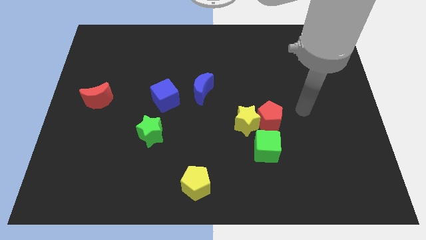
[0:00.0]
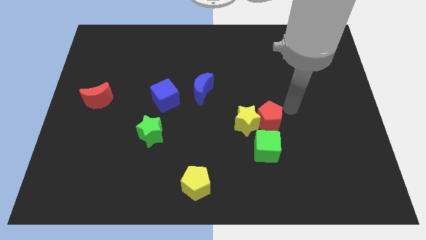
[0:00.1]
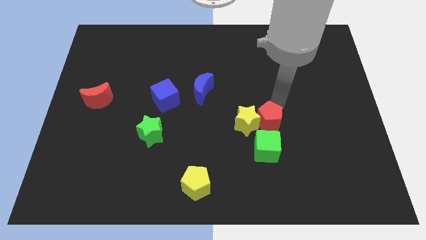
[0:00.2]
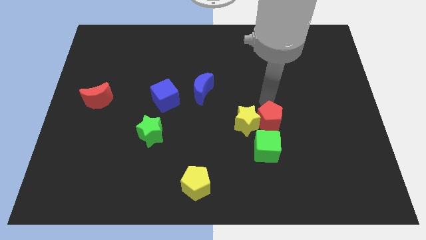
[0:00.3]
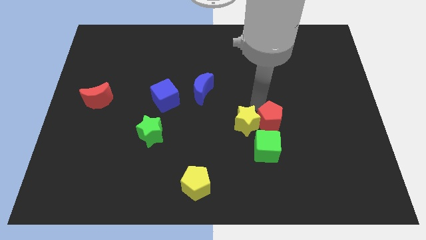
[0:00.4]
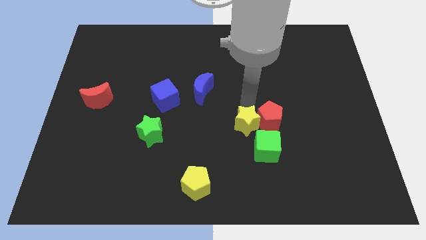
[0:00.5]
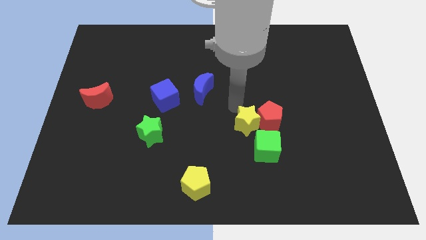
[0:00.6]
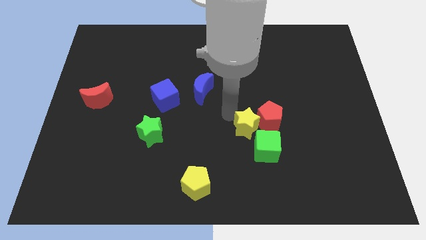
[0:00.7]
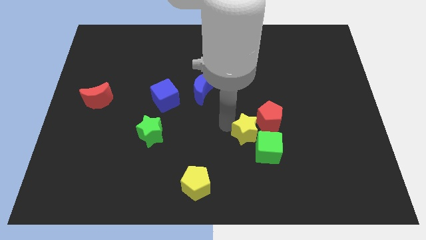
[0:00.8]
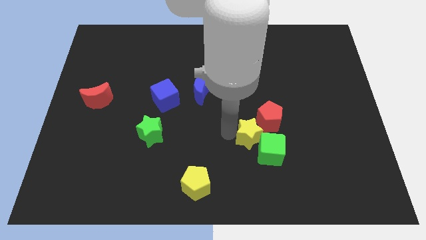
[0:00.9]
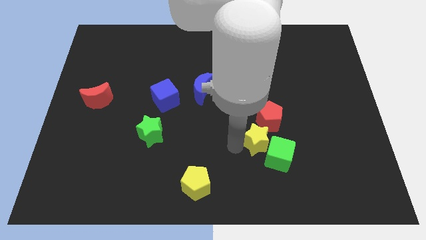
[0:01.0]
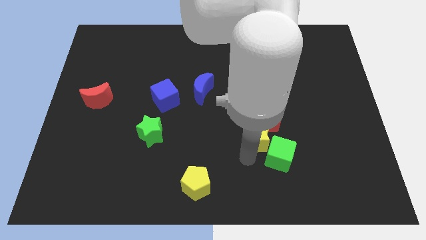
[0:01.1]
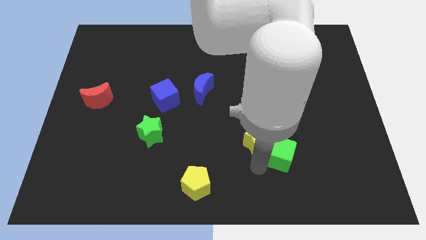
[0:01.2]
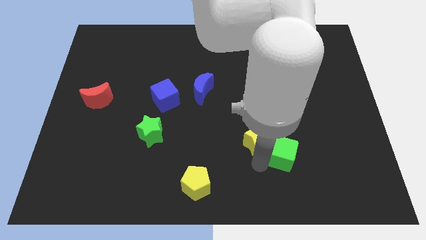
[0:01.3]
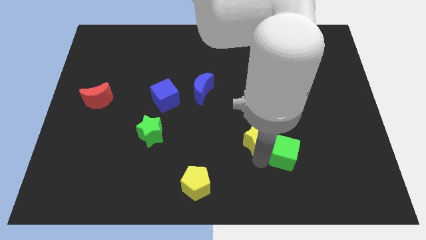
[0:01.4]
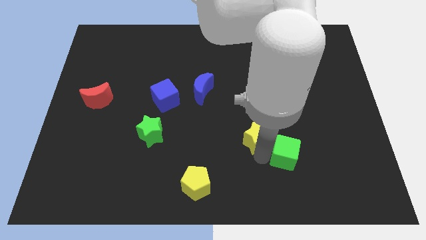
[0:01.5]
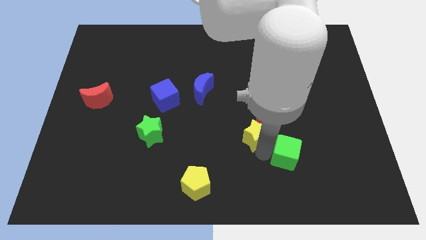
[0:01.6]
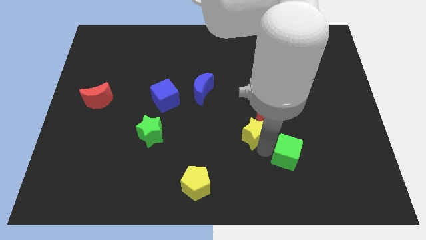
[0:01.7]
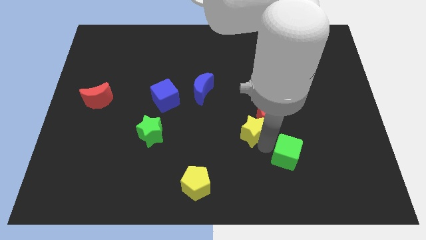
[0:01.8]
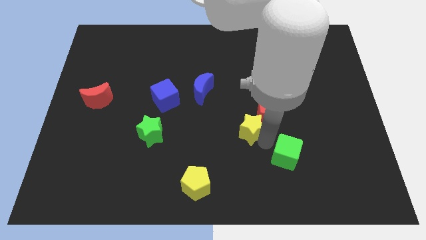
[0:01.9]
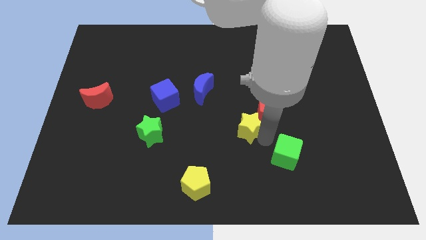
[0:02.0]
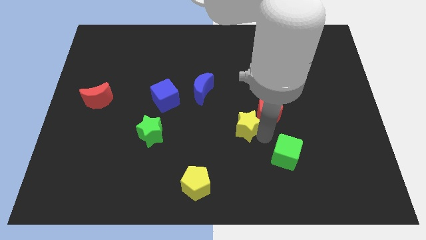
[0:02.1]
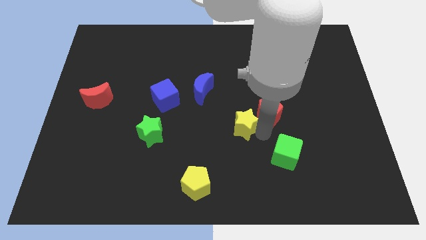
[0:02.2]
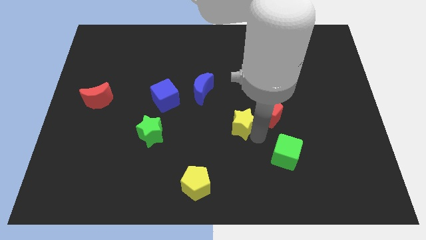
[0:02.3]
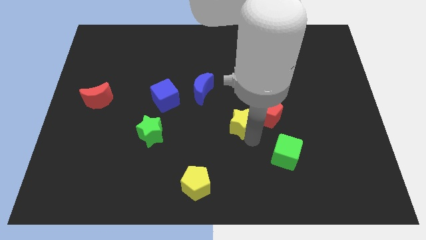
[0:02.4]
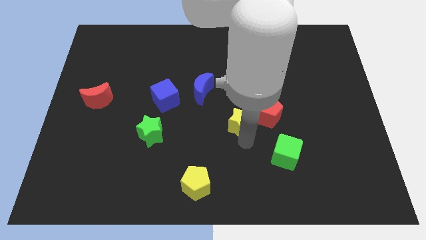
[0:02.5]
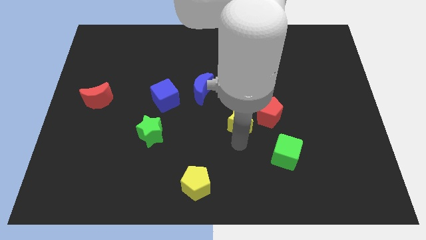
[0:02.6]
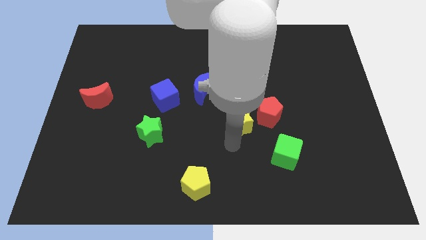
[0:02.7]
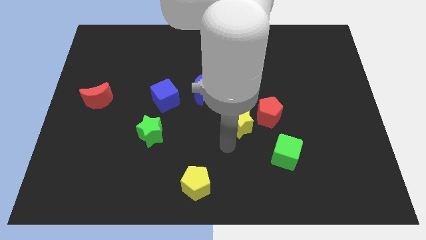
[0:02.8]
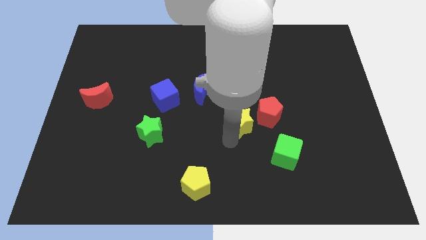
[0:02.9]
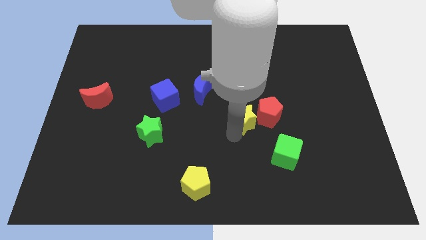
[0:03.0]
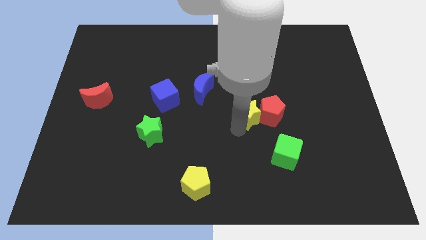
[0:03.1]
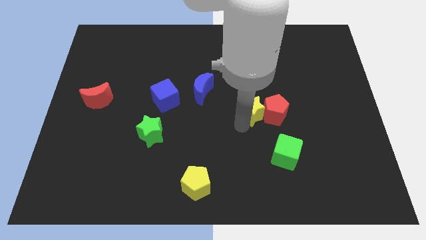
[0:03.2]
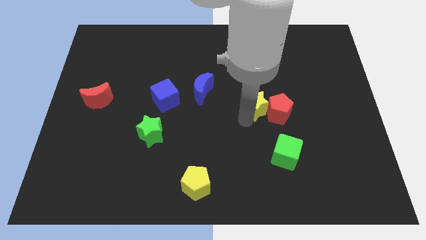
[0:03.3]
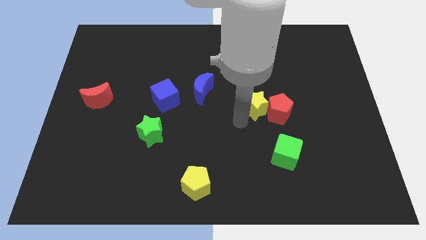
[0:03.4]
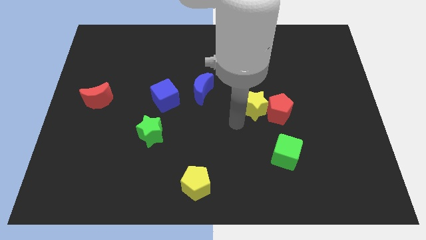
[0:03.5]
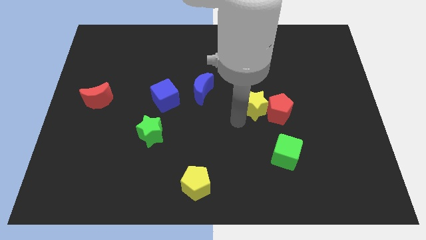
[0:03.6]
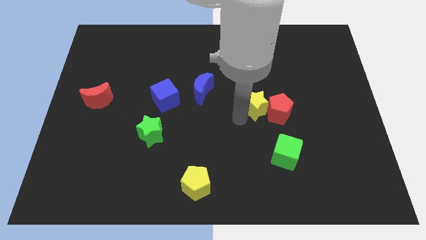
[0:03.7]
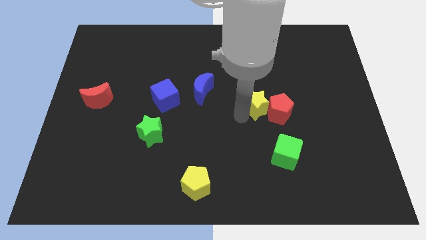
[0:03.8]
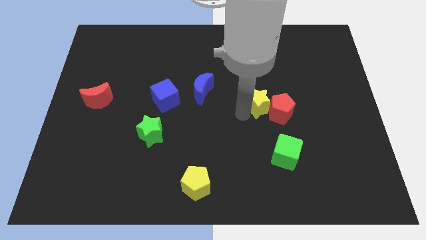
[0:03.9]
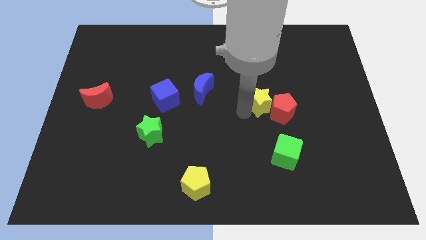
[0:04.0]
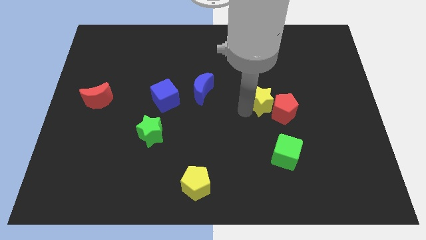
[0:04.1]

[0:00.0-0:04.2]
slightly push the yellow star upwards and to the right

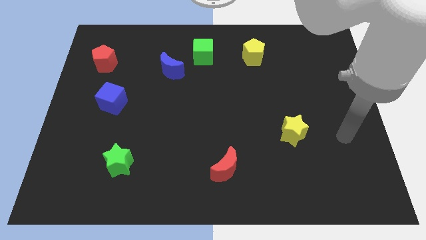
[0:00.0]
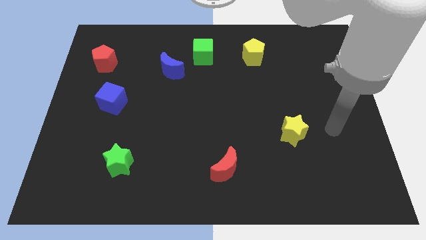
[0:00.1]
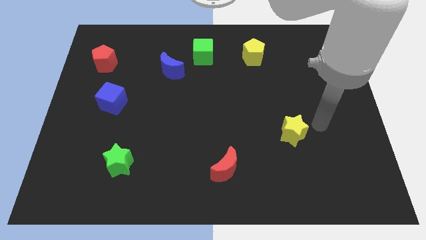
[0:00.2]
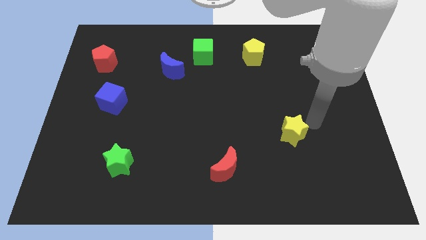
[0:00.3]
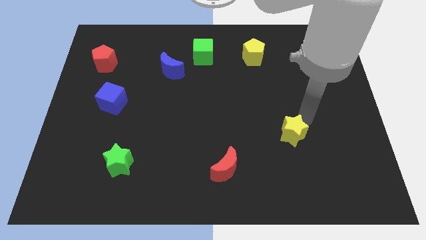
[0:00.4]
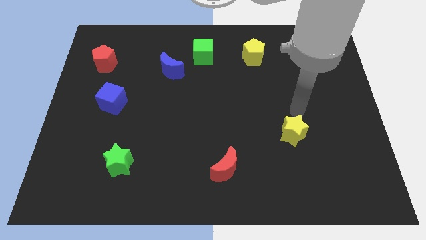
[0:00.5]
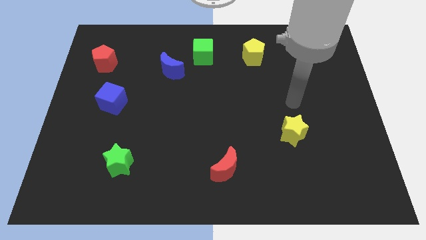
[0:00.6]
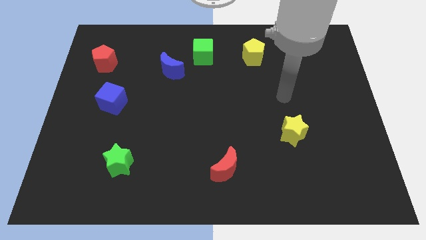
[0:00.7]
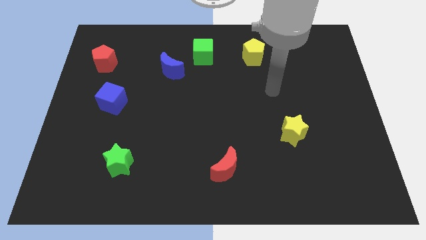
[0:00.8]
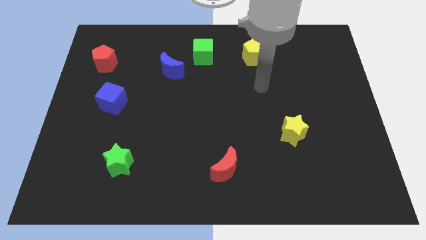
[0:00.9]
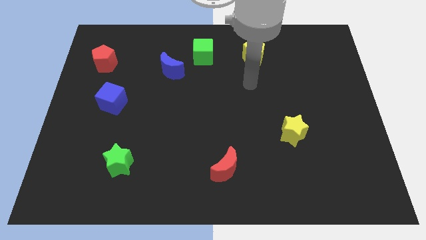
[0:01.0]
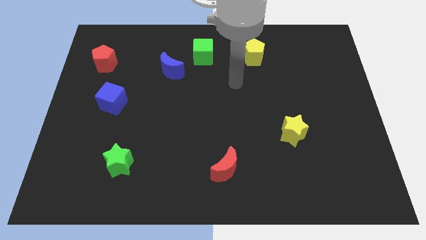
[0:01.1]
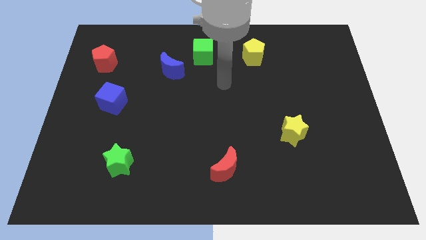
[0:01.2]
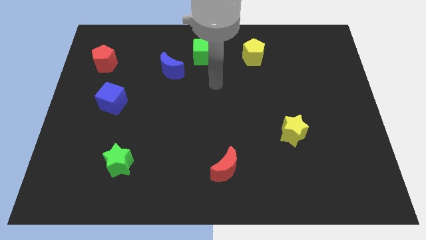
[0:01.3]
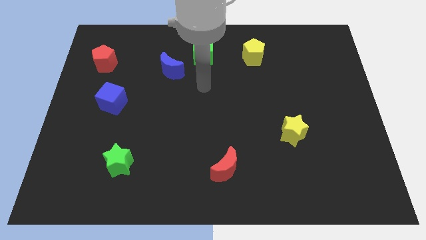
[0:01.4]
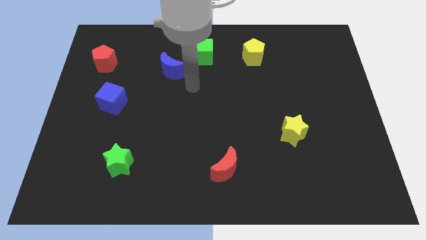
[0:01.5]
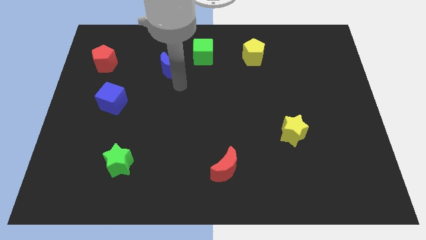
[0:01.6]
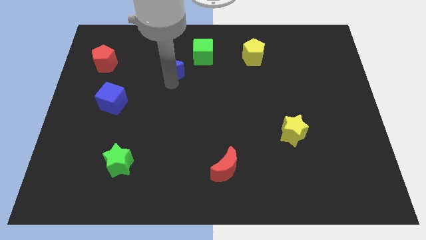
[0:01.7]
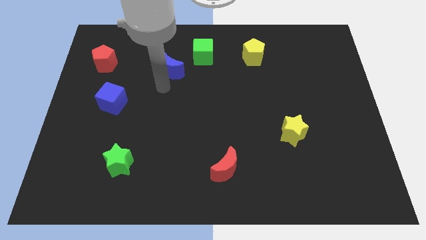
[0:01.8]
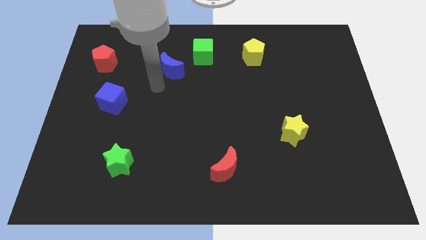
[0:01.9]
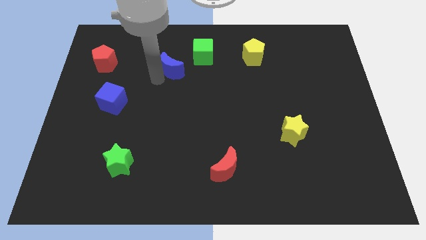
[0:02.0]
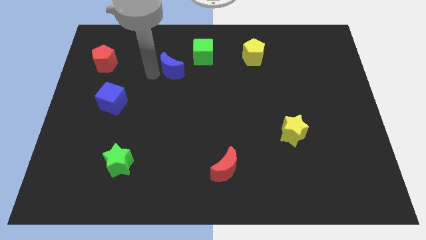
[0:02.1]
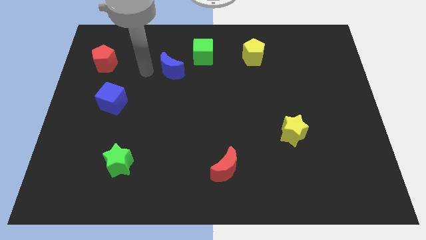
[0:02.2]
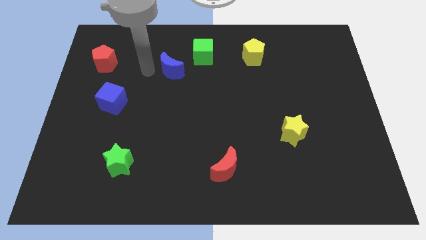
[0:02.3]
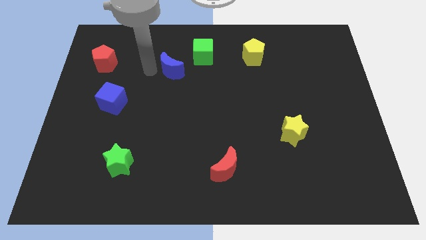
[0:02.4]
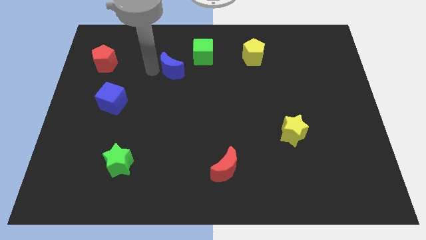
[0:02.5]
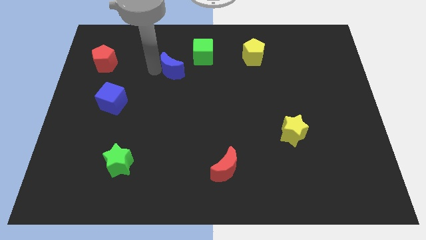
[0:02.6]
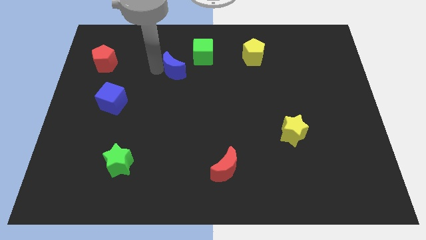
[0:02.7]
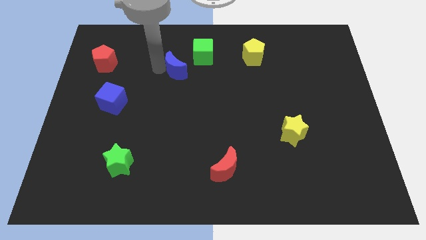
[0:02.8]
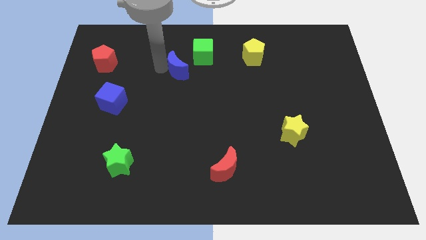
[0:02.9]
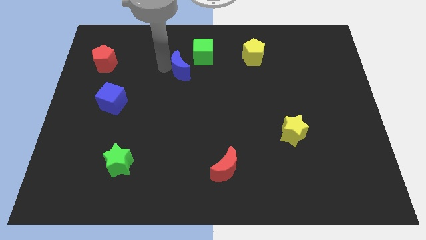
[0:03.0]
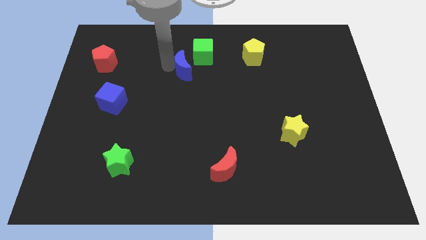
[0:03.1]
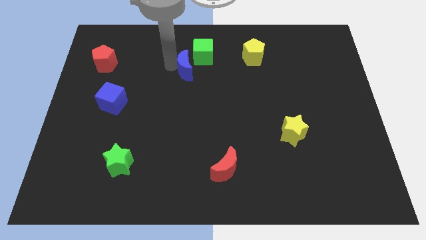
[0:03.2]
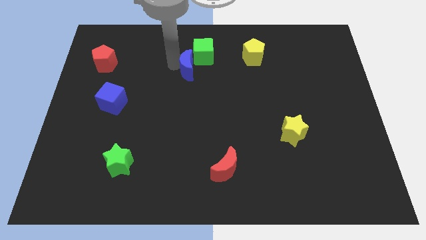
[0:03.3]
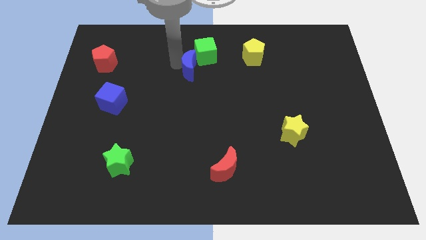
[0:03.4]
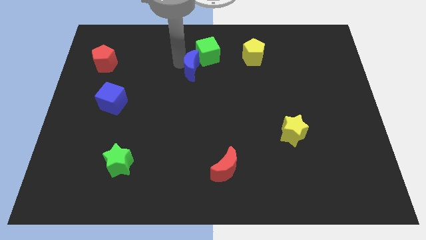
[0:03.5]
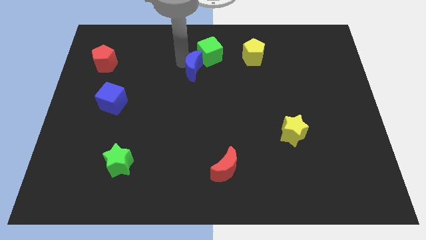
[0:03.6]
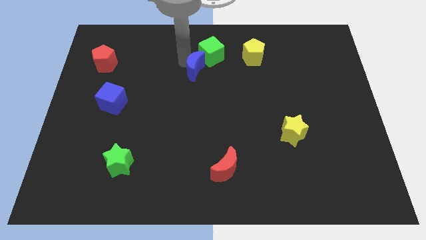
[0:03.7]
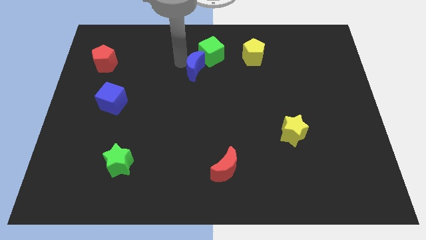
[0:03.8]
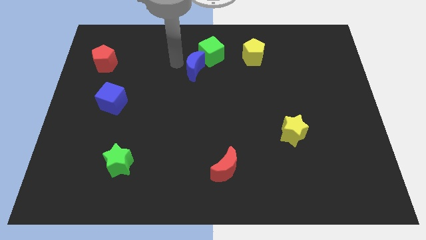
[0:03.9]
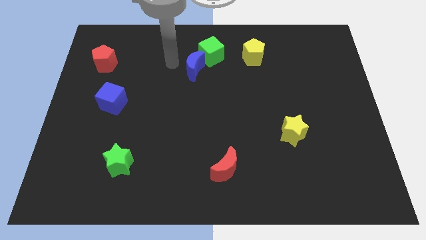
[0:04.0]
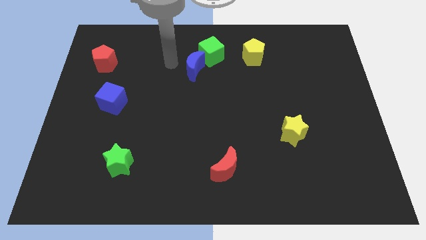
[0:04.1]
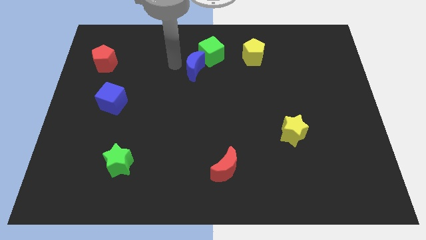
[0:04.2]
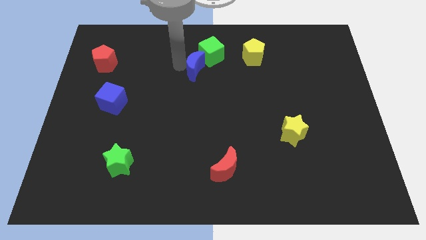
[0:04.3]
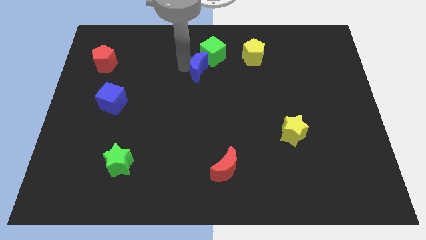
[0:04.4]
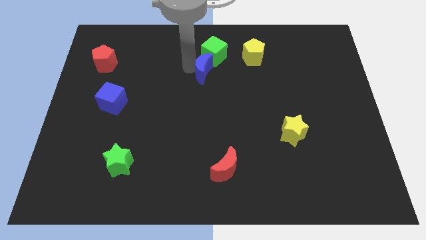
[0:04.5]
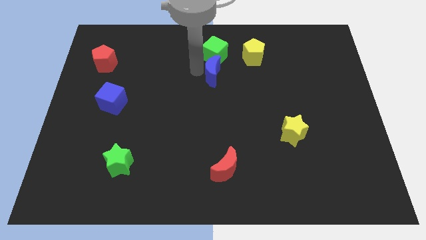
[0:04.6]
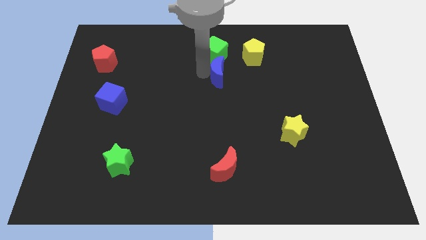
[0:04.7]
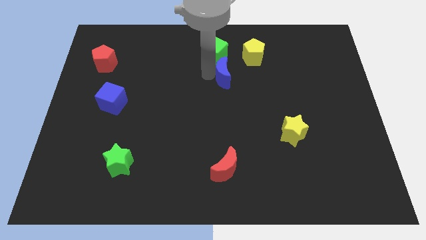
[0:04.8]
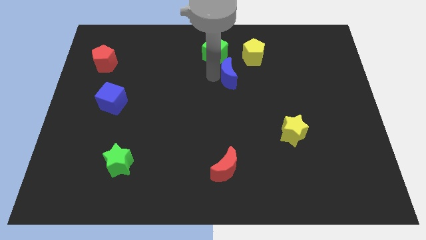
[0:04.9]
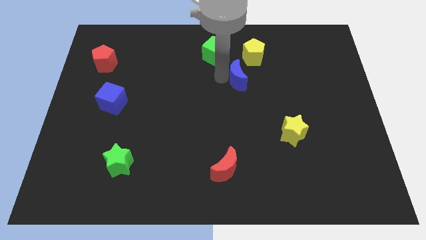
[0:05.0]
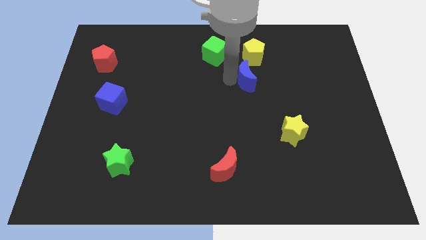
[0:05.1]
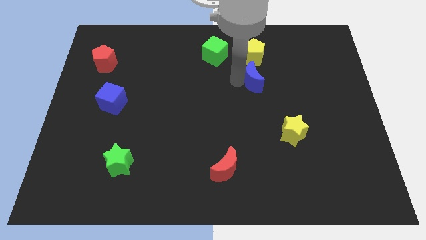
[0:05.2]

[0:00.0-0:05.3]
move the blue moon right
